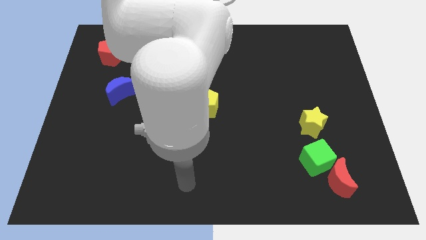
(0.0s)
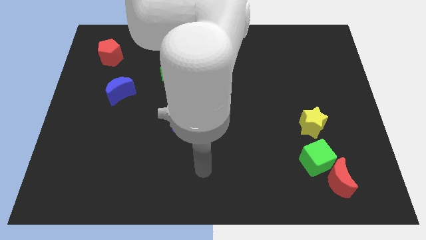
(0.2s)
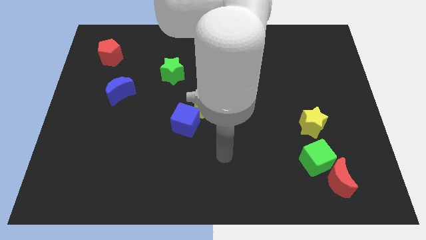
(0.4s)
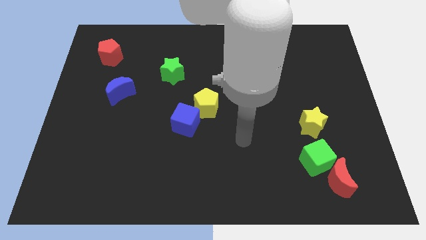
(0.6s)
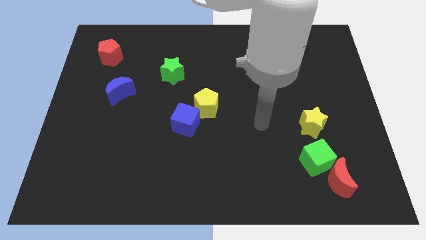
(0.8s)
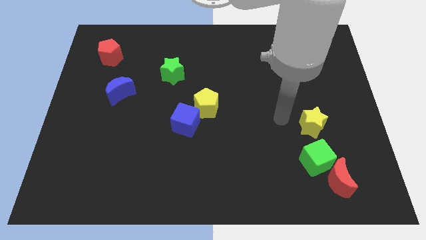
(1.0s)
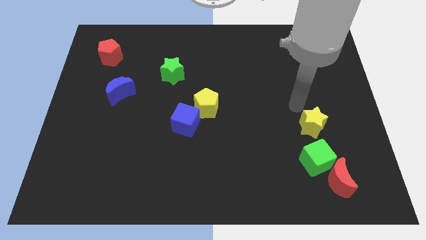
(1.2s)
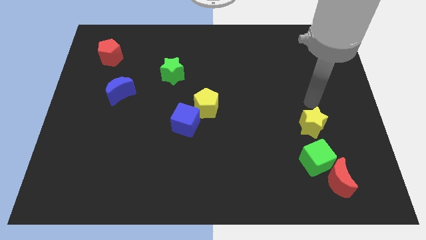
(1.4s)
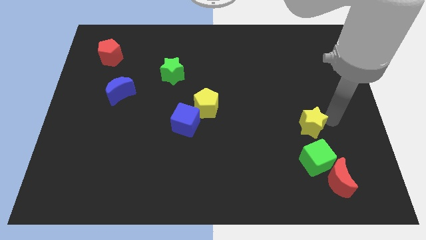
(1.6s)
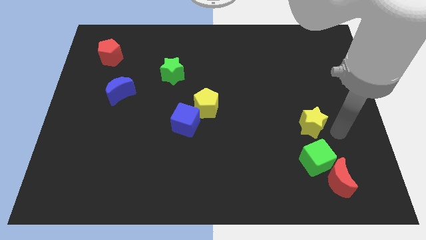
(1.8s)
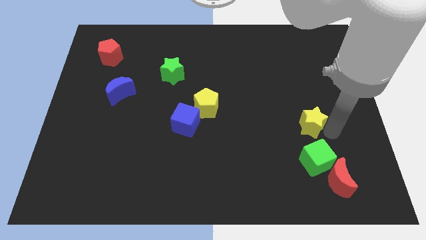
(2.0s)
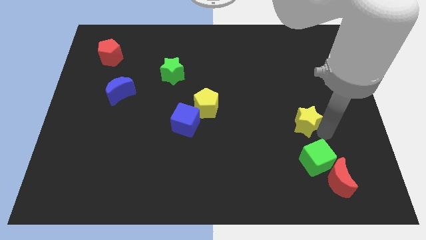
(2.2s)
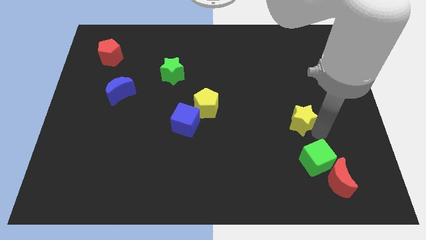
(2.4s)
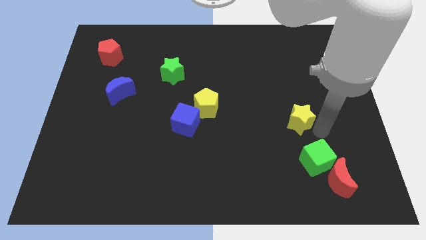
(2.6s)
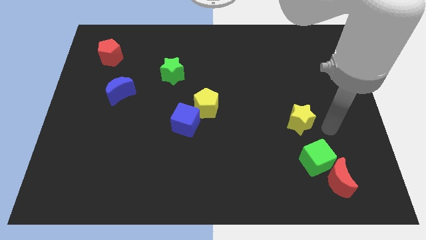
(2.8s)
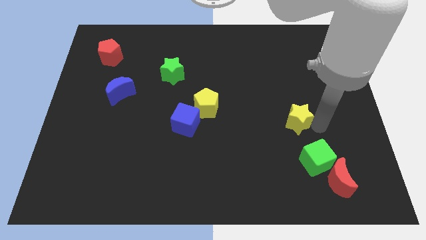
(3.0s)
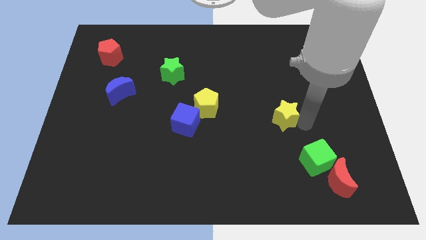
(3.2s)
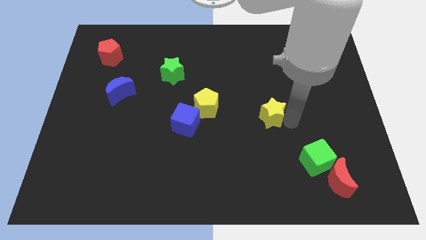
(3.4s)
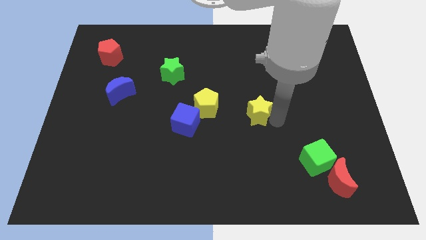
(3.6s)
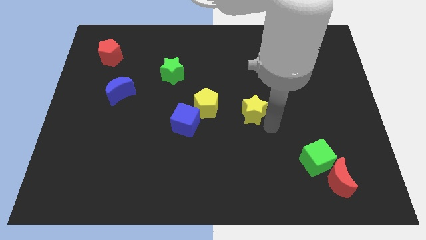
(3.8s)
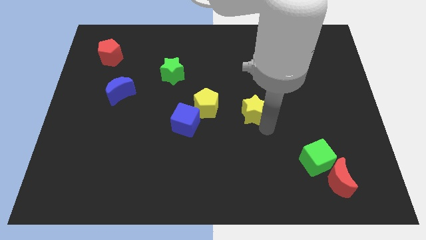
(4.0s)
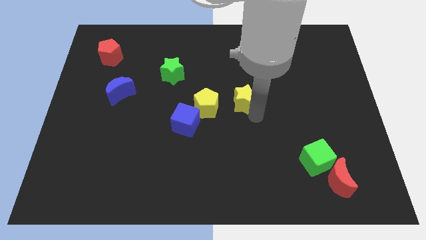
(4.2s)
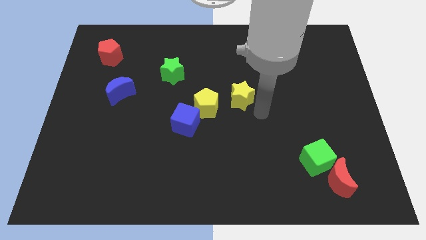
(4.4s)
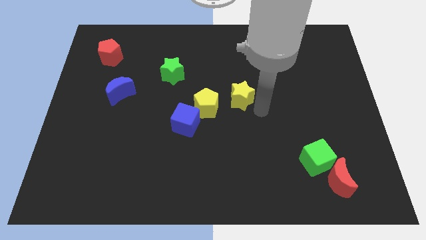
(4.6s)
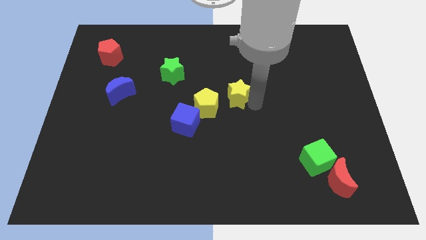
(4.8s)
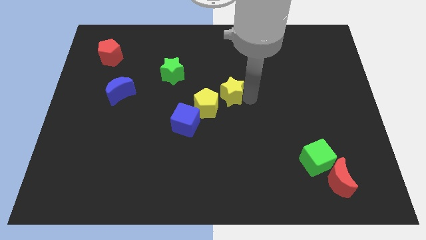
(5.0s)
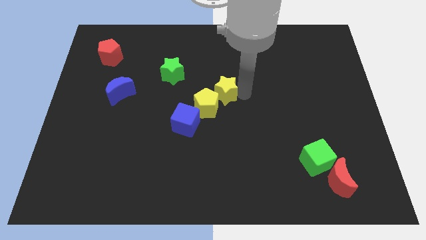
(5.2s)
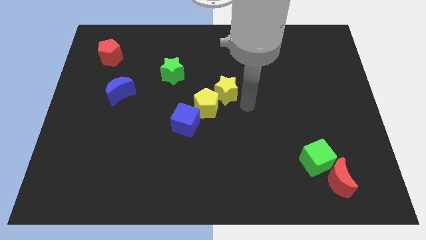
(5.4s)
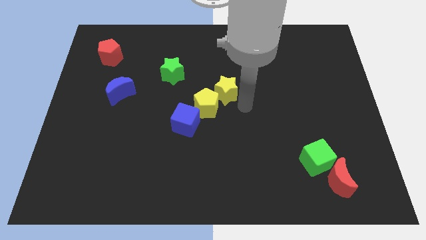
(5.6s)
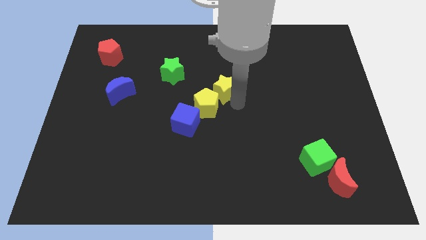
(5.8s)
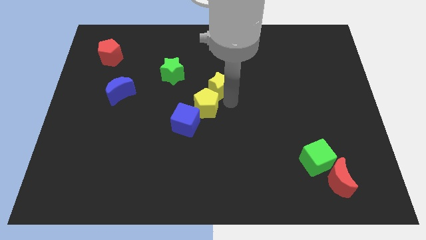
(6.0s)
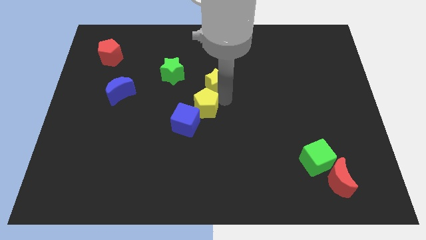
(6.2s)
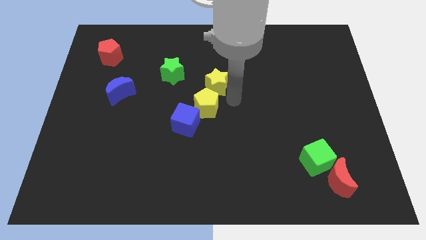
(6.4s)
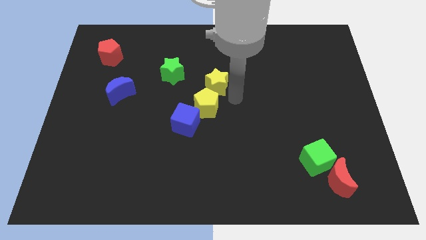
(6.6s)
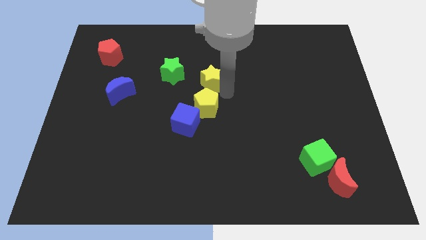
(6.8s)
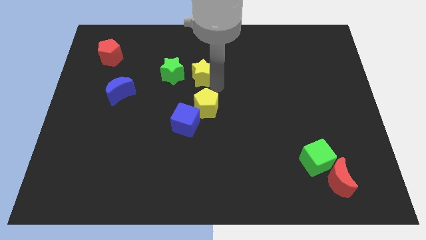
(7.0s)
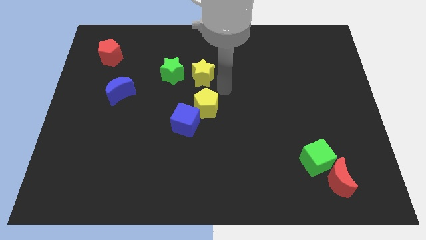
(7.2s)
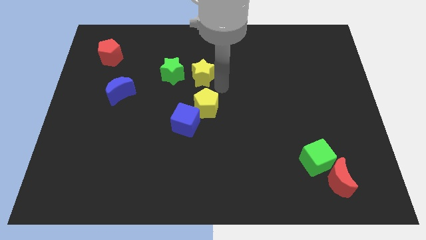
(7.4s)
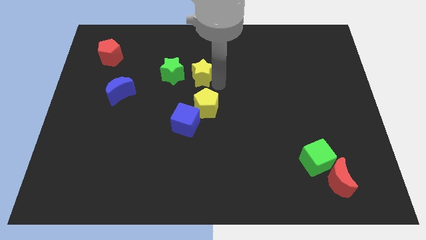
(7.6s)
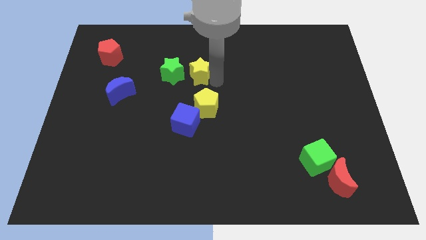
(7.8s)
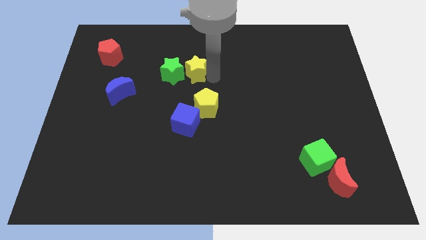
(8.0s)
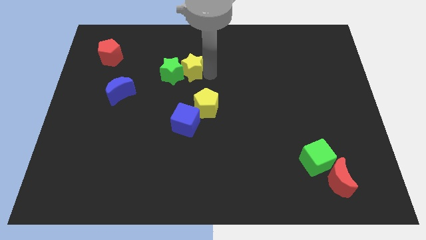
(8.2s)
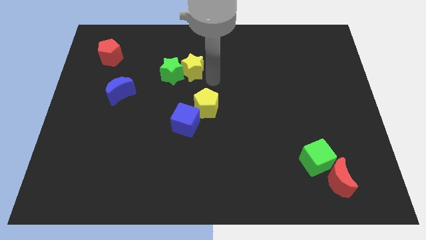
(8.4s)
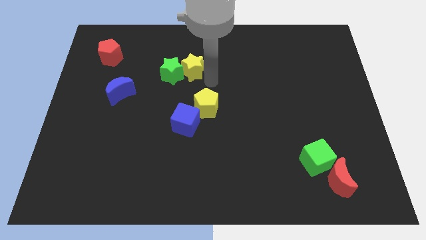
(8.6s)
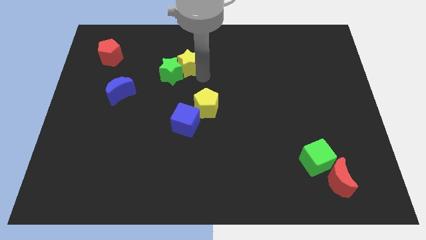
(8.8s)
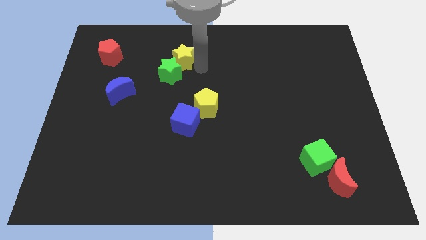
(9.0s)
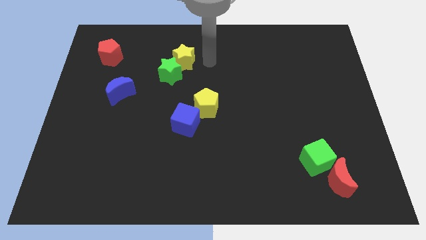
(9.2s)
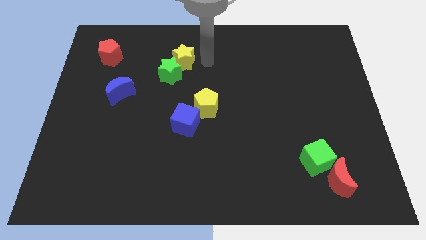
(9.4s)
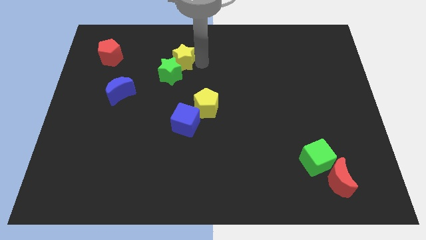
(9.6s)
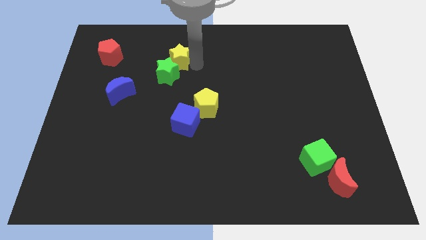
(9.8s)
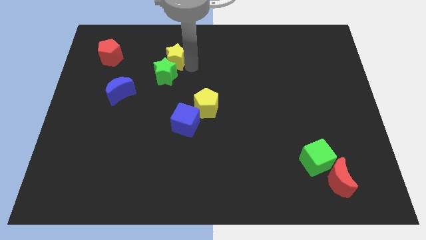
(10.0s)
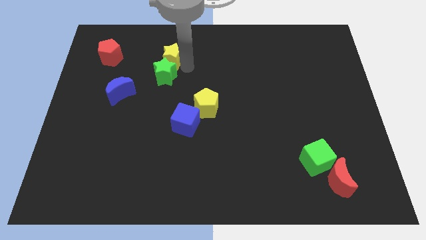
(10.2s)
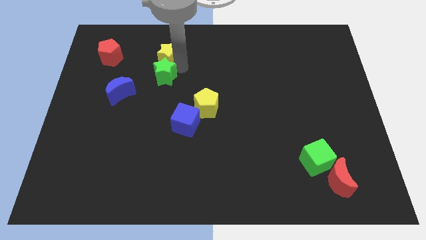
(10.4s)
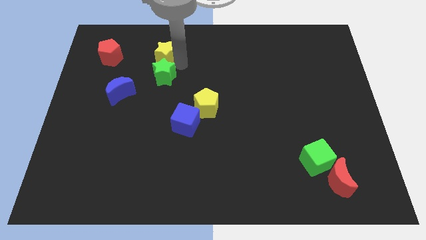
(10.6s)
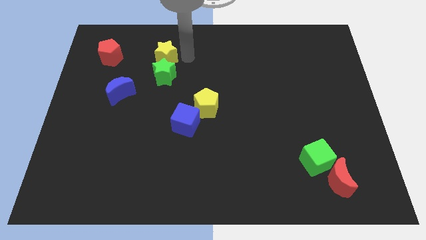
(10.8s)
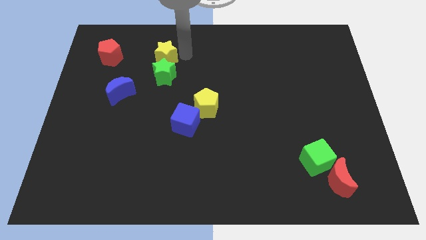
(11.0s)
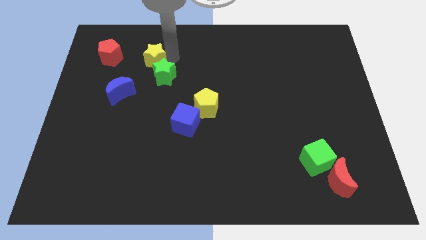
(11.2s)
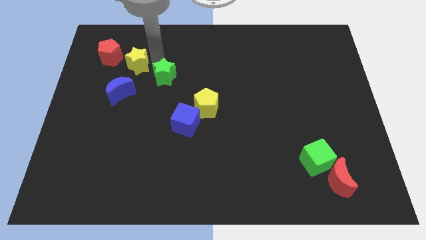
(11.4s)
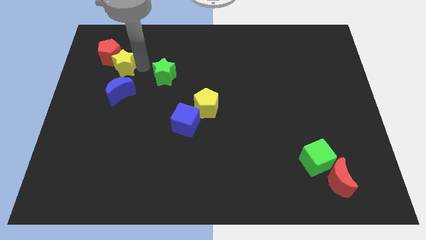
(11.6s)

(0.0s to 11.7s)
move the yellow star next to the red pentagon
